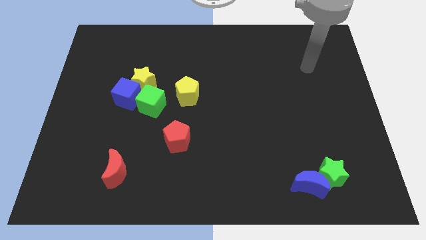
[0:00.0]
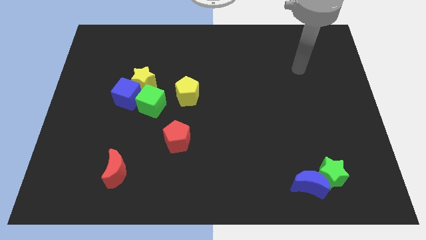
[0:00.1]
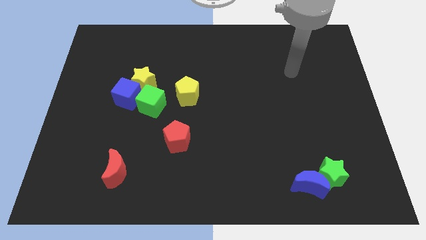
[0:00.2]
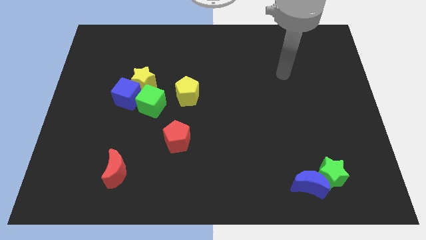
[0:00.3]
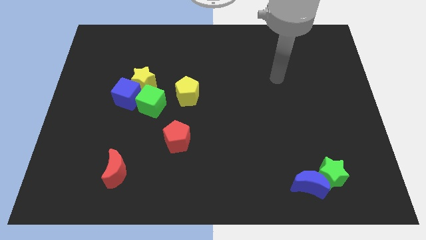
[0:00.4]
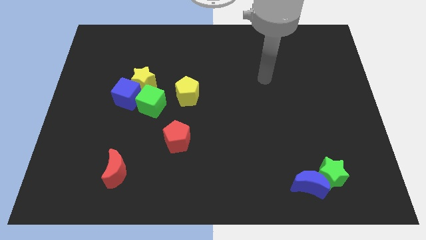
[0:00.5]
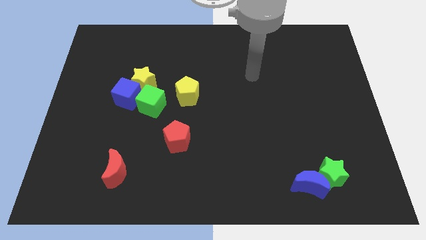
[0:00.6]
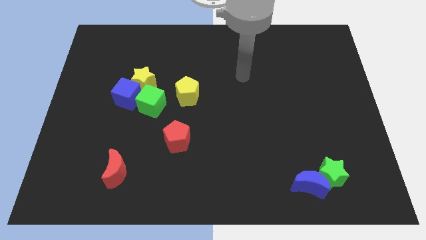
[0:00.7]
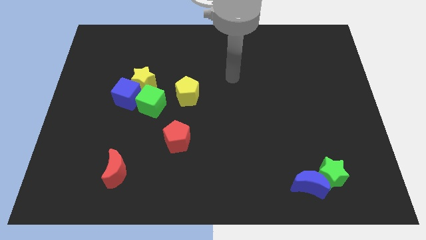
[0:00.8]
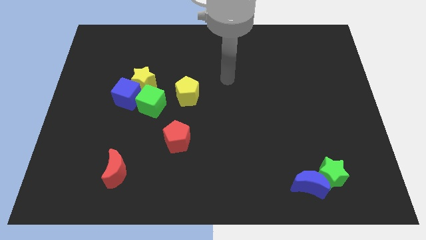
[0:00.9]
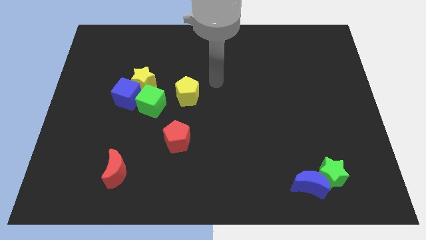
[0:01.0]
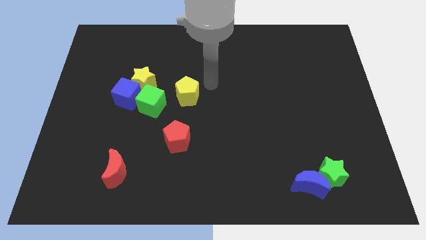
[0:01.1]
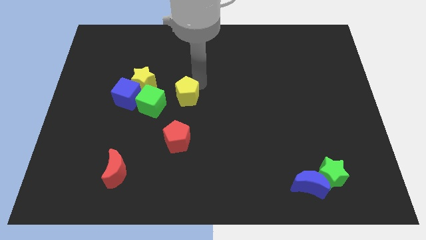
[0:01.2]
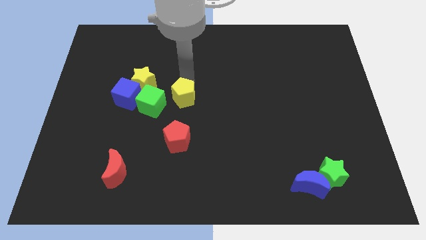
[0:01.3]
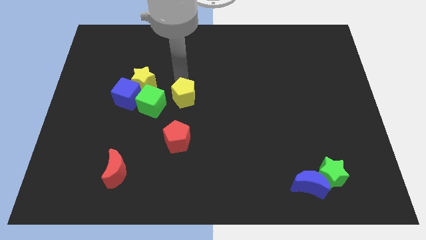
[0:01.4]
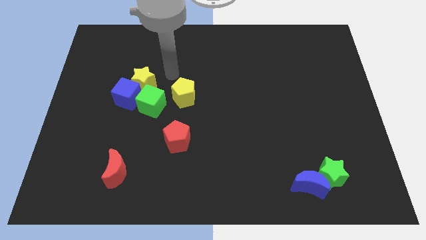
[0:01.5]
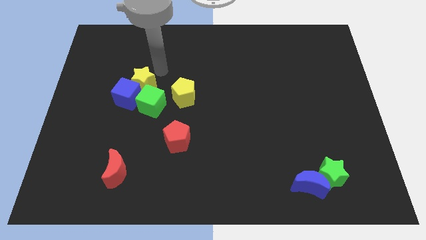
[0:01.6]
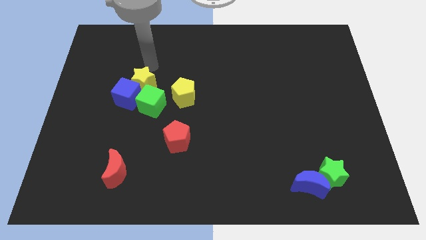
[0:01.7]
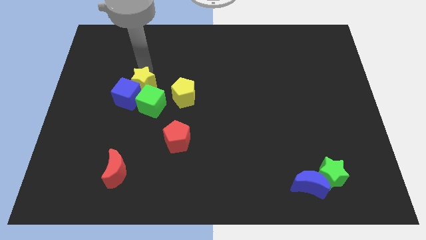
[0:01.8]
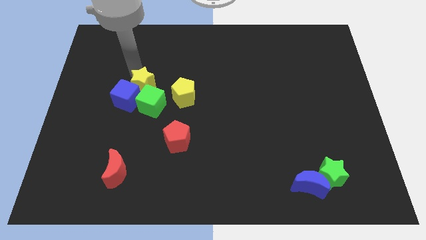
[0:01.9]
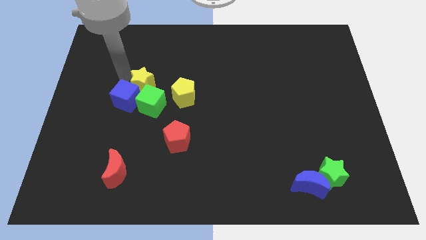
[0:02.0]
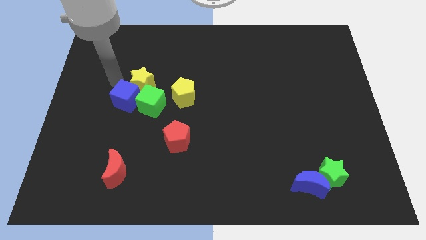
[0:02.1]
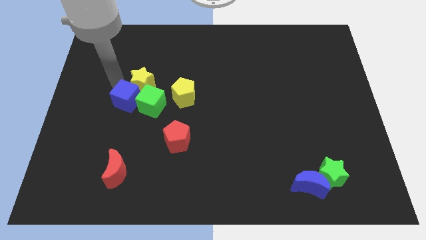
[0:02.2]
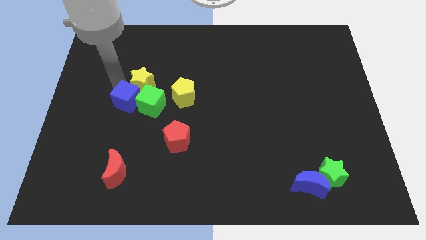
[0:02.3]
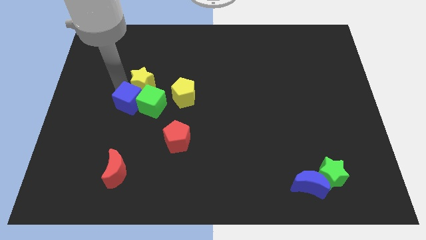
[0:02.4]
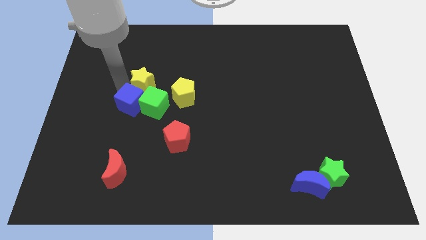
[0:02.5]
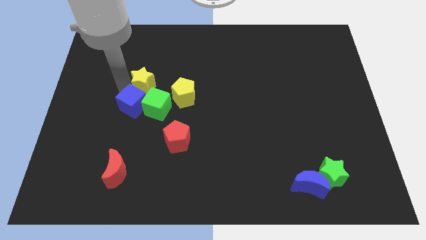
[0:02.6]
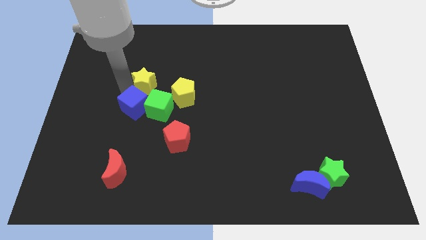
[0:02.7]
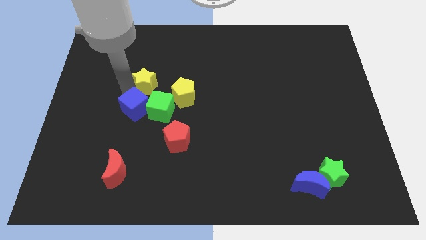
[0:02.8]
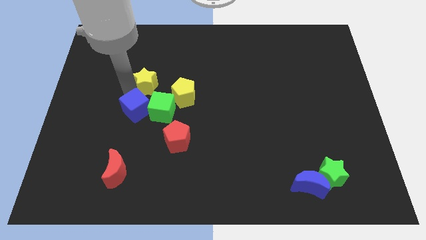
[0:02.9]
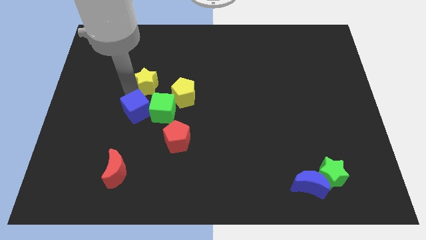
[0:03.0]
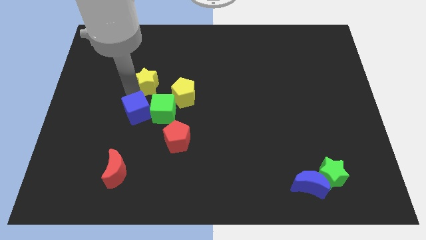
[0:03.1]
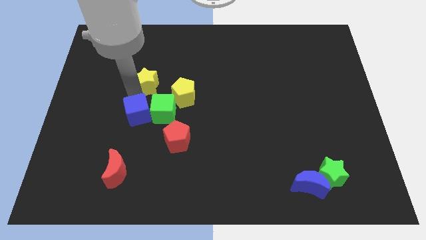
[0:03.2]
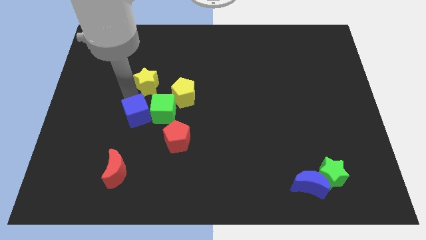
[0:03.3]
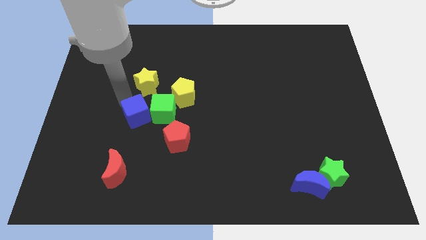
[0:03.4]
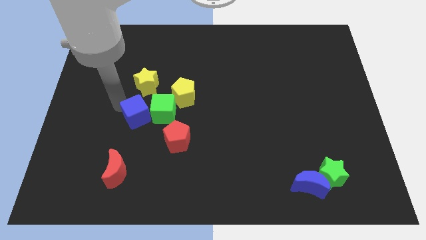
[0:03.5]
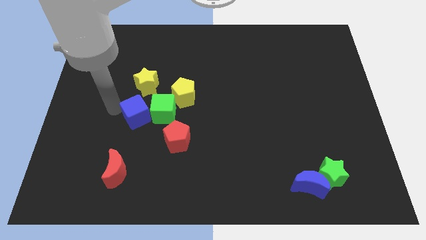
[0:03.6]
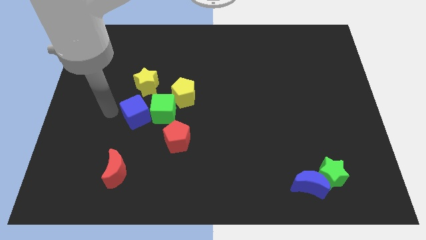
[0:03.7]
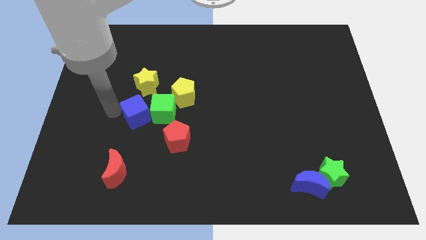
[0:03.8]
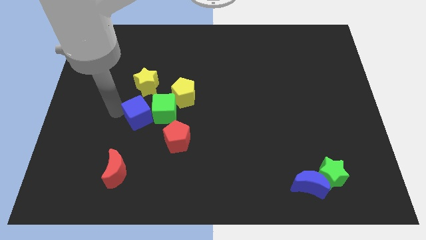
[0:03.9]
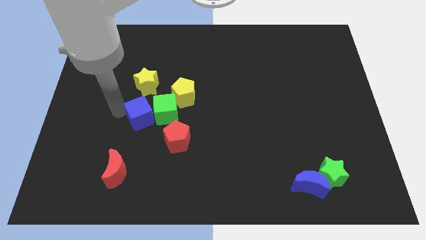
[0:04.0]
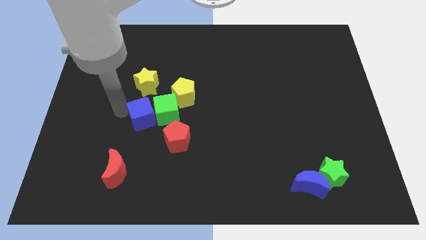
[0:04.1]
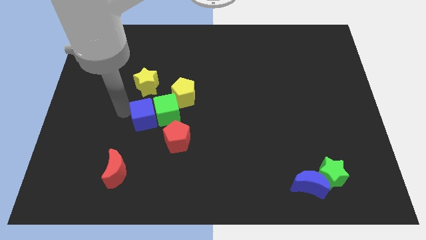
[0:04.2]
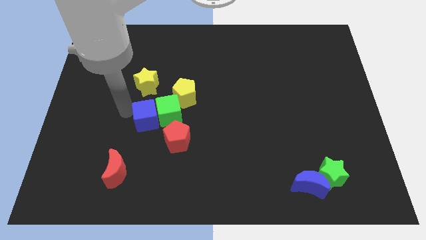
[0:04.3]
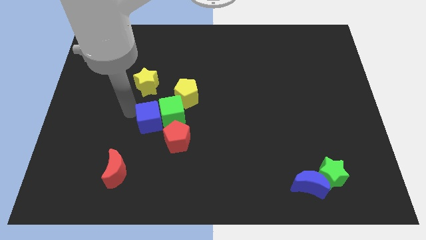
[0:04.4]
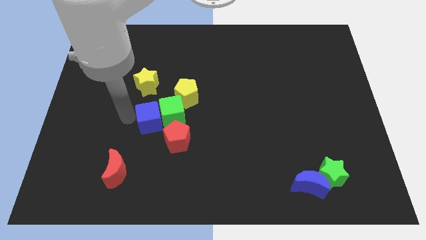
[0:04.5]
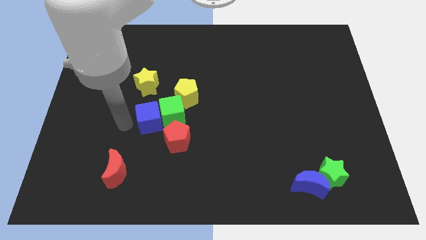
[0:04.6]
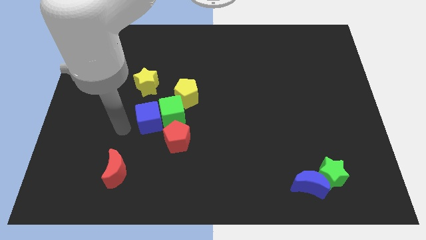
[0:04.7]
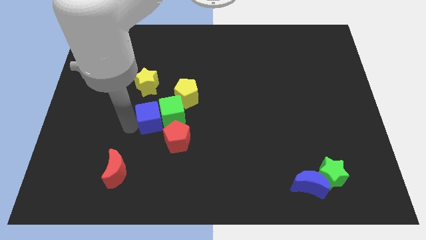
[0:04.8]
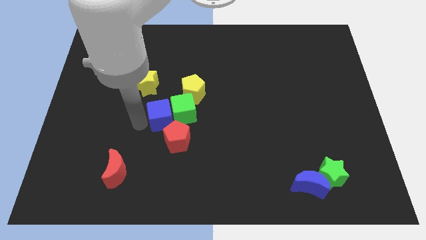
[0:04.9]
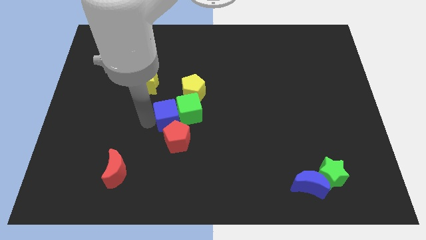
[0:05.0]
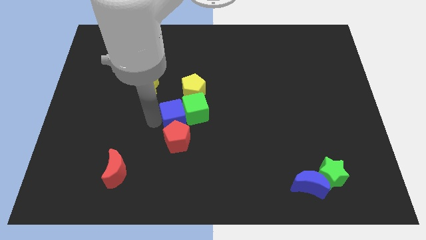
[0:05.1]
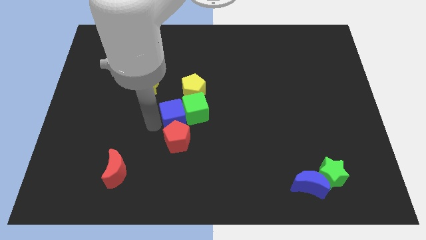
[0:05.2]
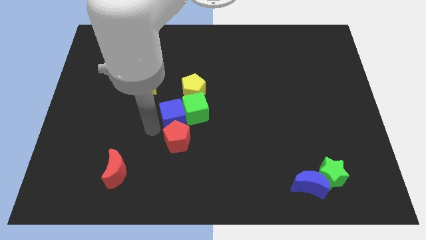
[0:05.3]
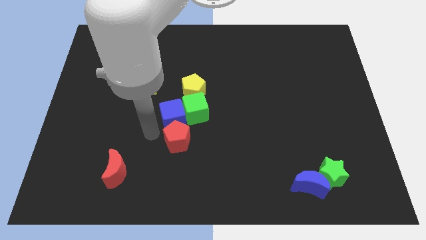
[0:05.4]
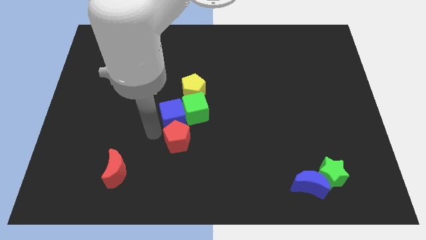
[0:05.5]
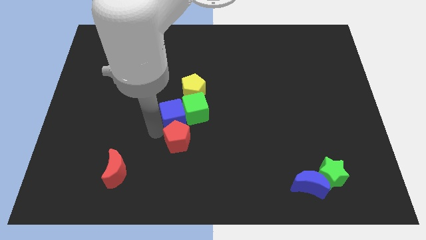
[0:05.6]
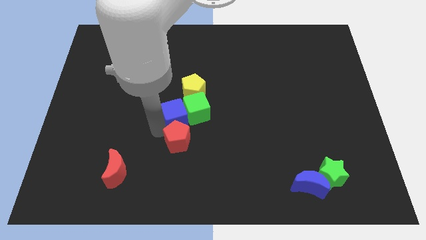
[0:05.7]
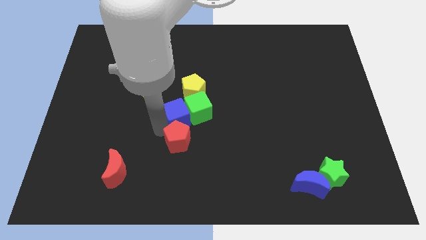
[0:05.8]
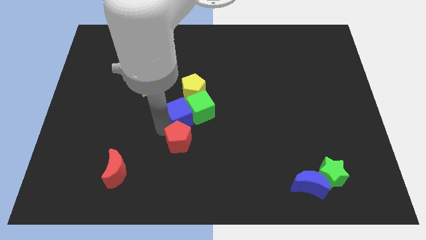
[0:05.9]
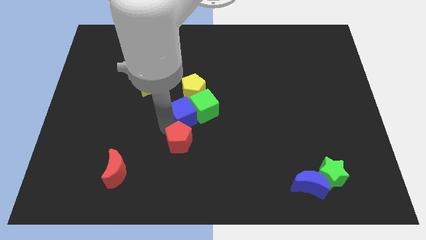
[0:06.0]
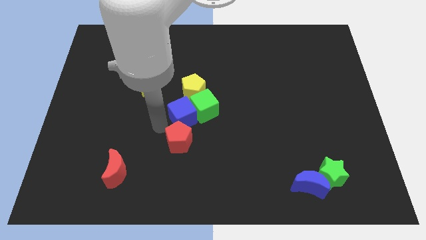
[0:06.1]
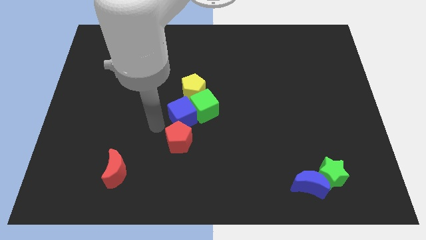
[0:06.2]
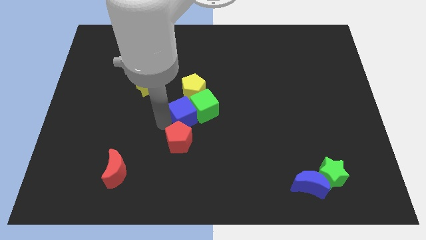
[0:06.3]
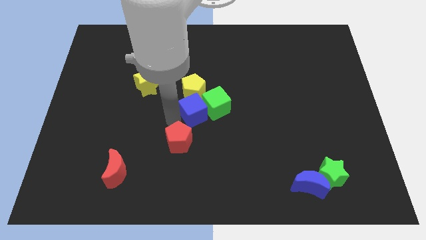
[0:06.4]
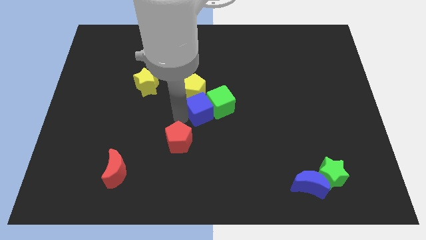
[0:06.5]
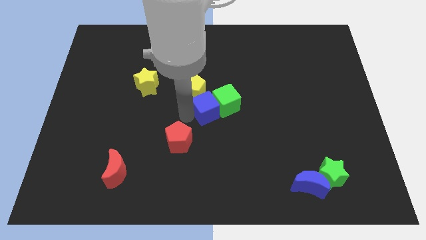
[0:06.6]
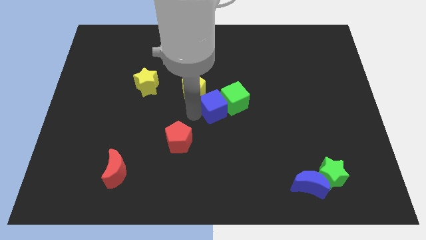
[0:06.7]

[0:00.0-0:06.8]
move the blue cube right

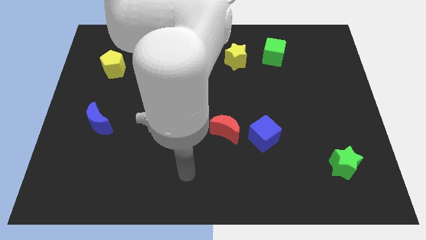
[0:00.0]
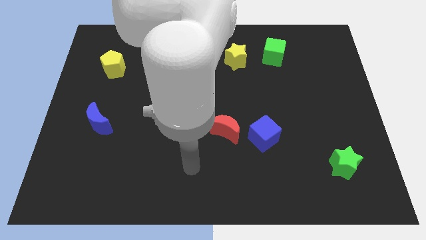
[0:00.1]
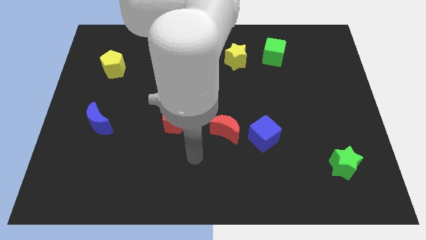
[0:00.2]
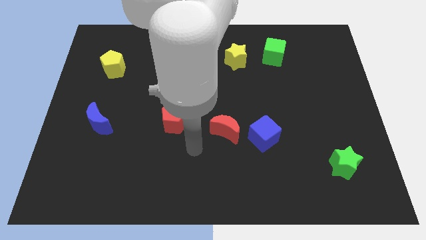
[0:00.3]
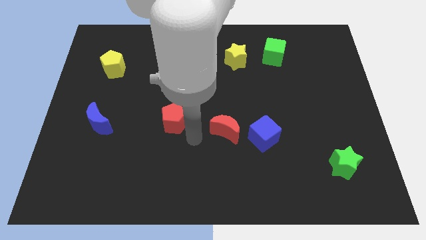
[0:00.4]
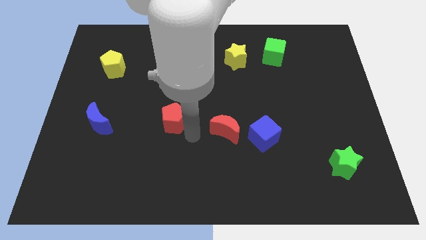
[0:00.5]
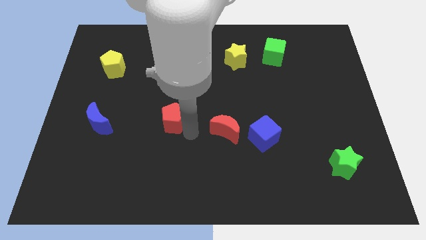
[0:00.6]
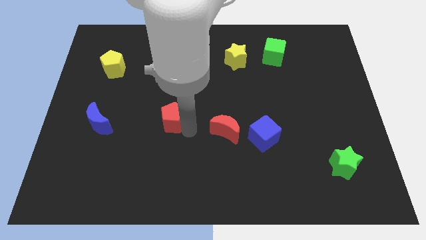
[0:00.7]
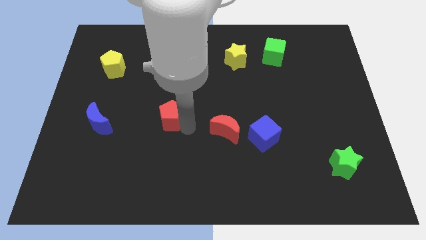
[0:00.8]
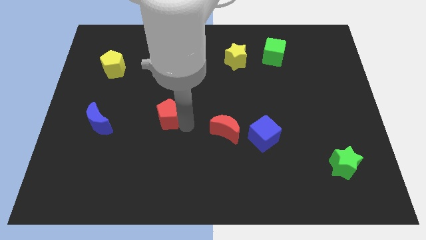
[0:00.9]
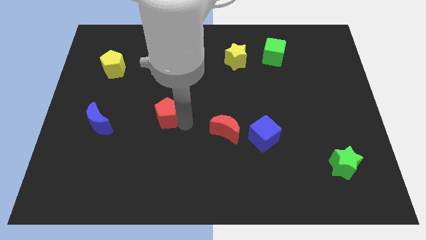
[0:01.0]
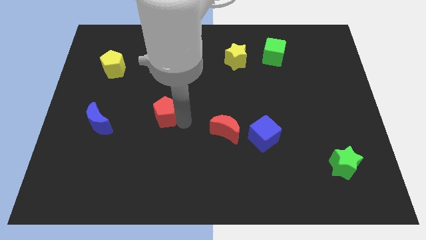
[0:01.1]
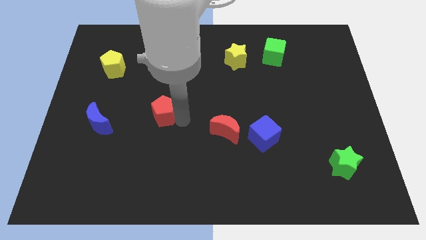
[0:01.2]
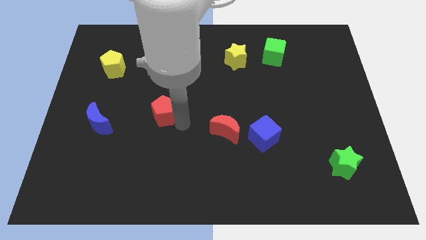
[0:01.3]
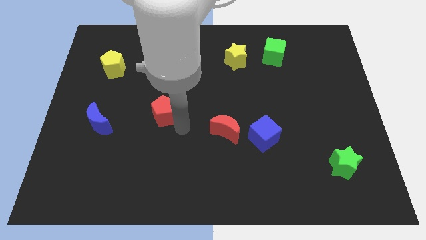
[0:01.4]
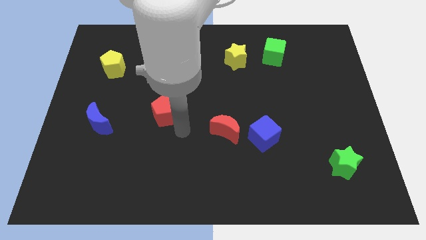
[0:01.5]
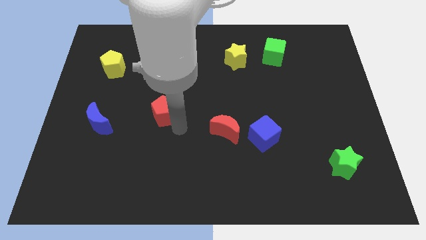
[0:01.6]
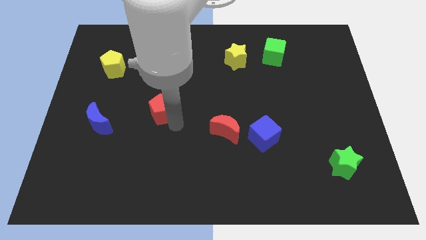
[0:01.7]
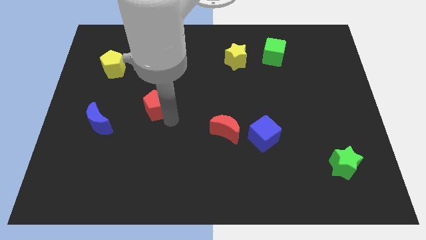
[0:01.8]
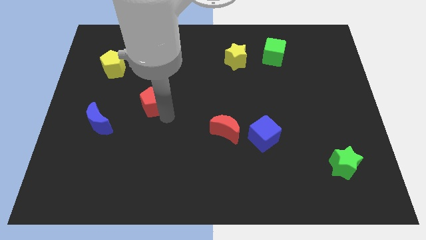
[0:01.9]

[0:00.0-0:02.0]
slide the red pentagon diagonally up and left a little bit
